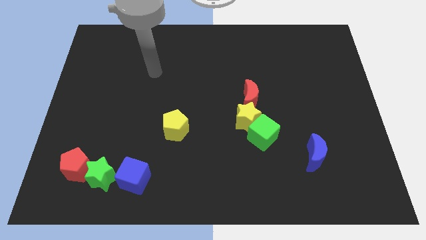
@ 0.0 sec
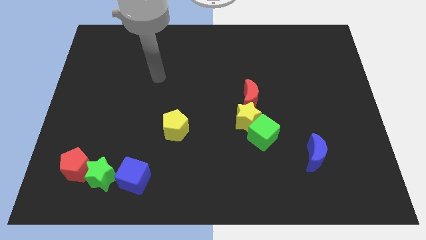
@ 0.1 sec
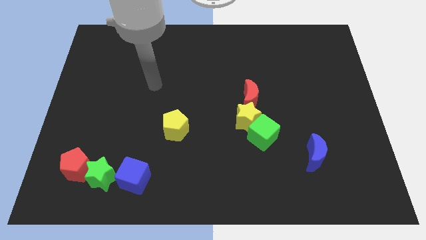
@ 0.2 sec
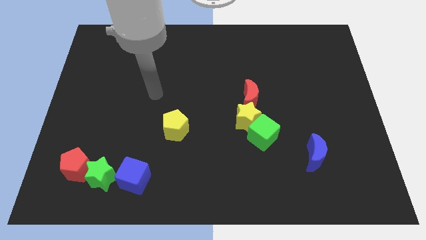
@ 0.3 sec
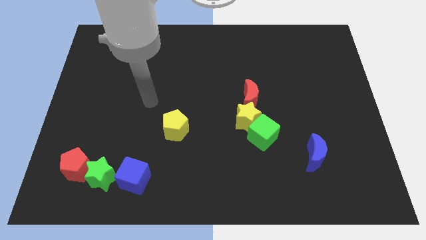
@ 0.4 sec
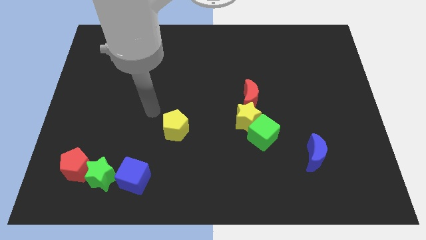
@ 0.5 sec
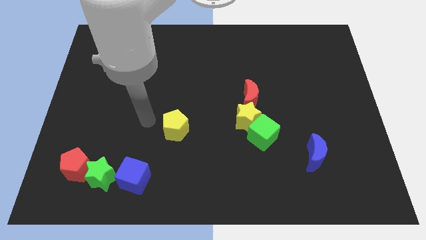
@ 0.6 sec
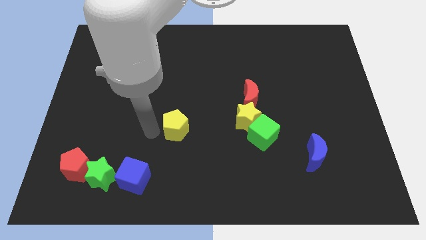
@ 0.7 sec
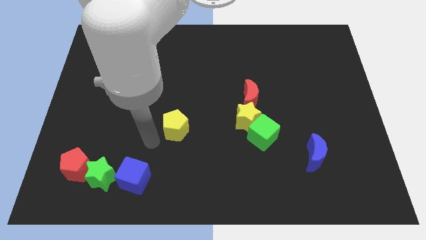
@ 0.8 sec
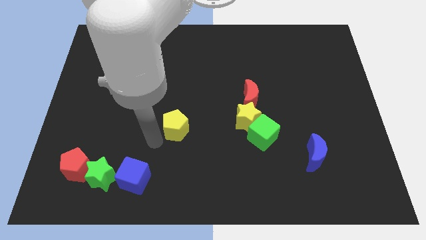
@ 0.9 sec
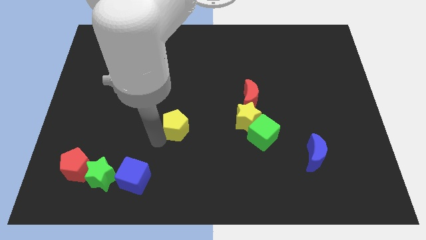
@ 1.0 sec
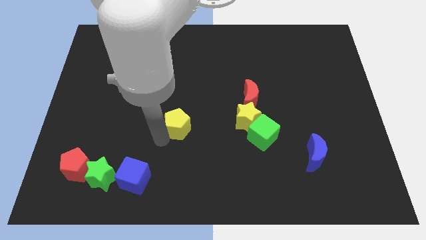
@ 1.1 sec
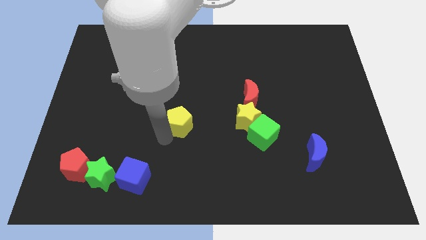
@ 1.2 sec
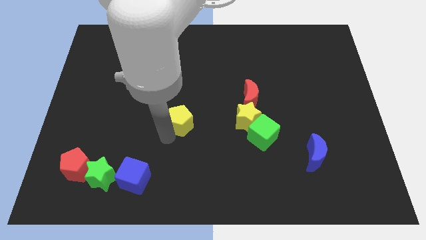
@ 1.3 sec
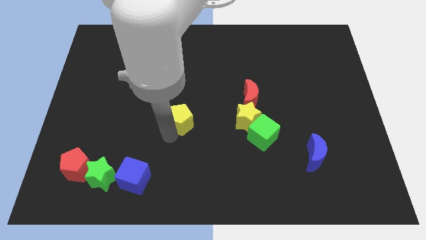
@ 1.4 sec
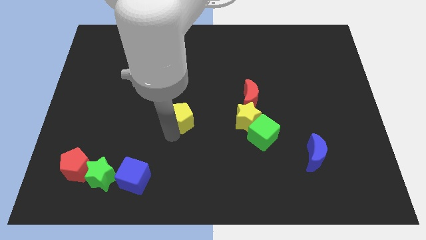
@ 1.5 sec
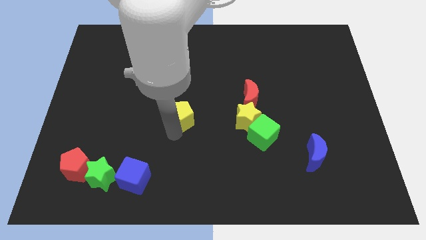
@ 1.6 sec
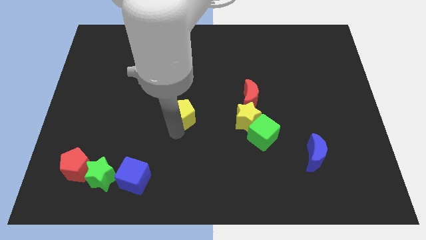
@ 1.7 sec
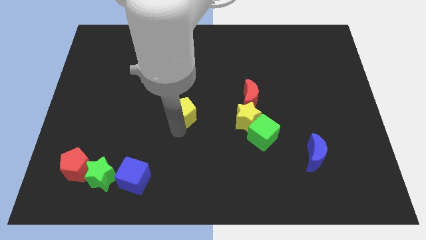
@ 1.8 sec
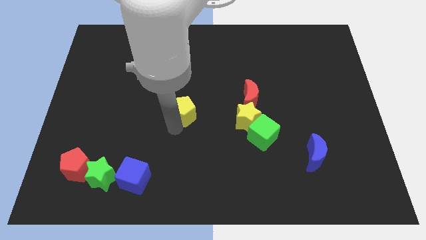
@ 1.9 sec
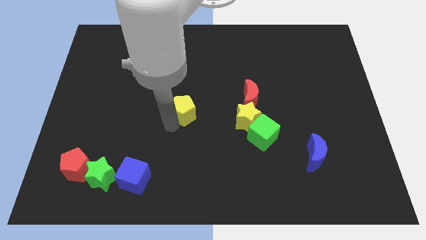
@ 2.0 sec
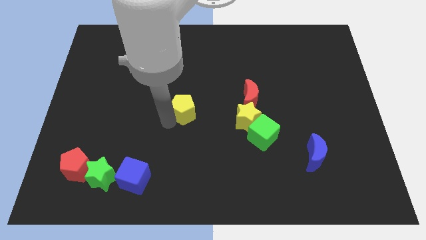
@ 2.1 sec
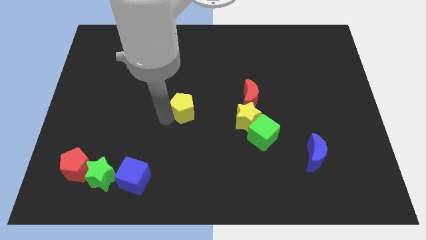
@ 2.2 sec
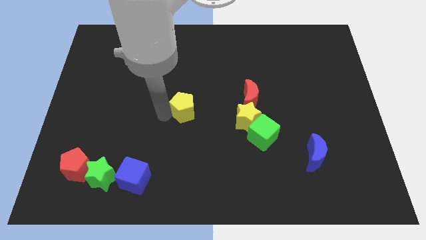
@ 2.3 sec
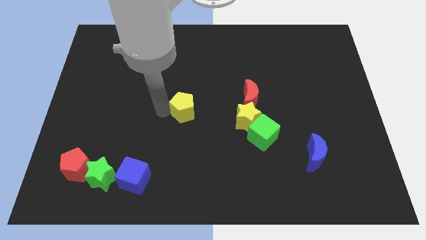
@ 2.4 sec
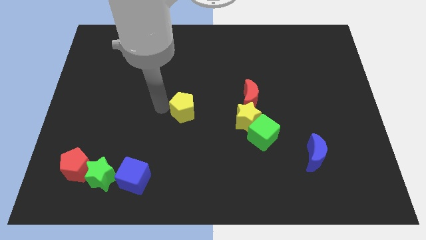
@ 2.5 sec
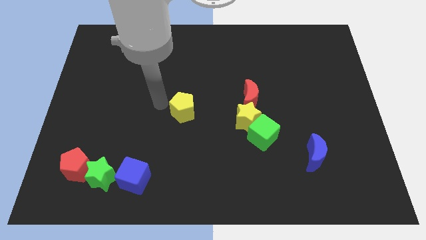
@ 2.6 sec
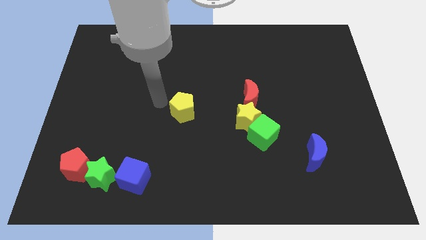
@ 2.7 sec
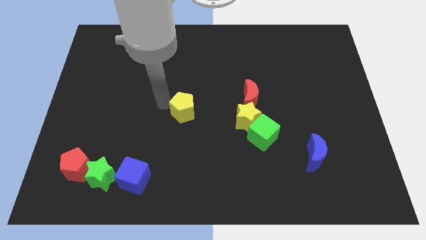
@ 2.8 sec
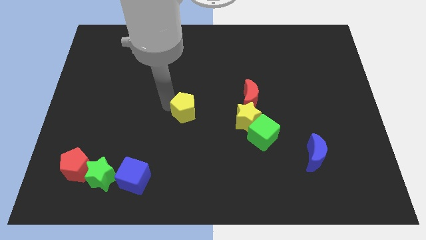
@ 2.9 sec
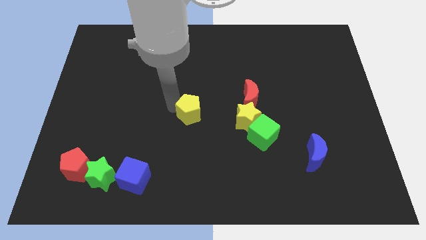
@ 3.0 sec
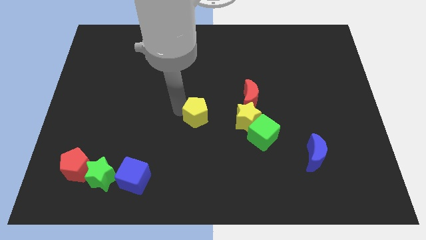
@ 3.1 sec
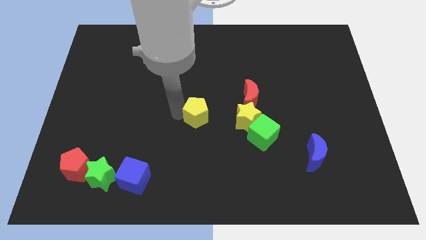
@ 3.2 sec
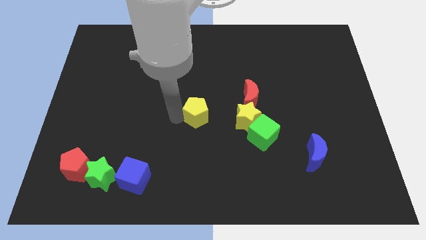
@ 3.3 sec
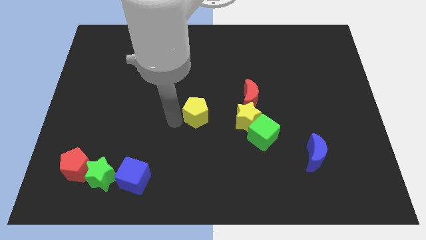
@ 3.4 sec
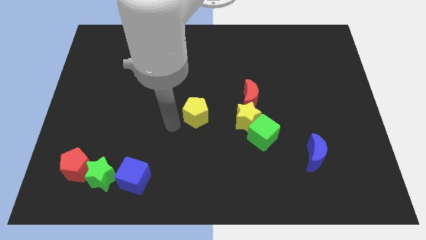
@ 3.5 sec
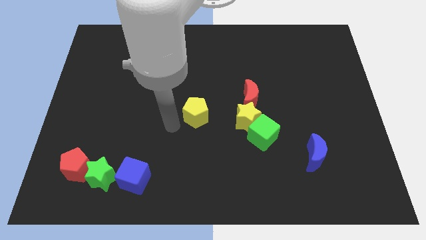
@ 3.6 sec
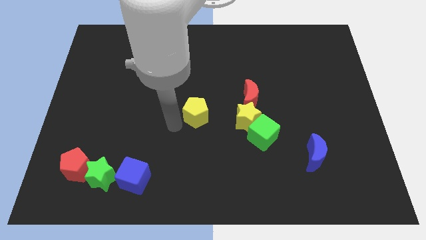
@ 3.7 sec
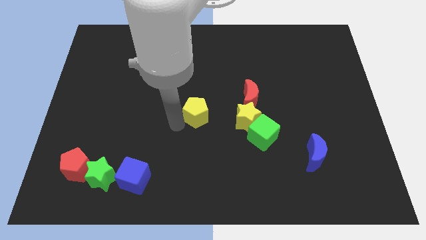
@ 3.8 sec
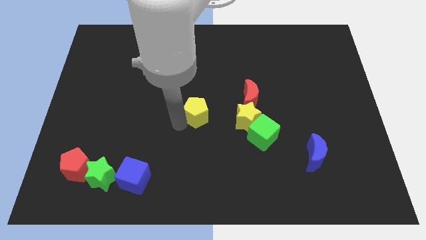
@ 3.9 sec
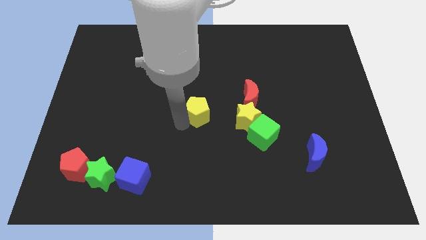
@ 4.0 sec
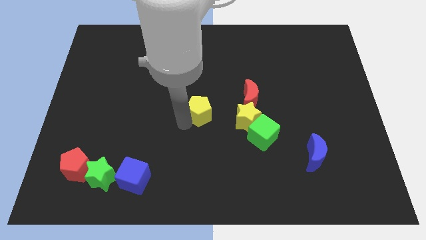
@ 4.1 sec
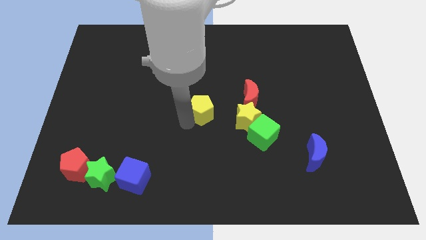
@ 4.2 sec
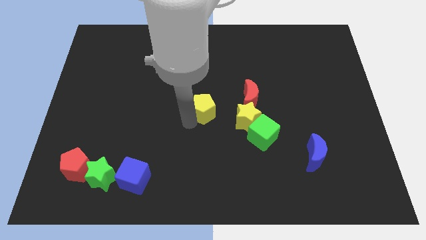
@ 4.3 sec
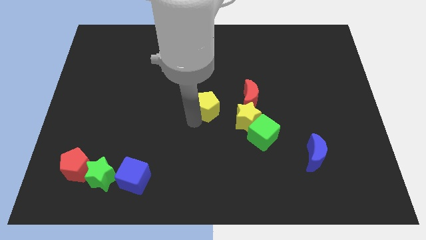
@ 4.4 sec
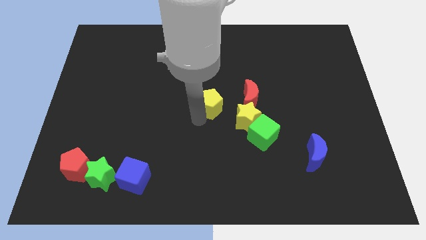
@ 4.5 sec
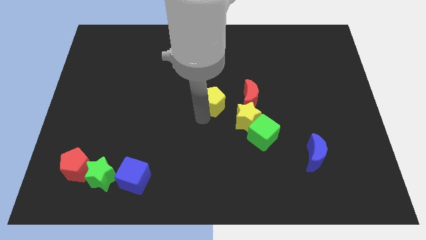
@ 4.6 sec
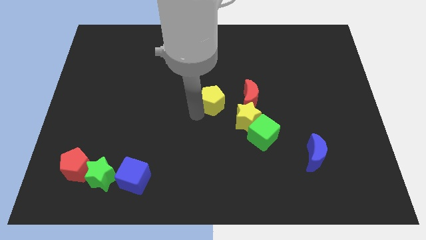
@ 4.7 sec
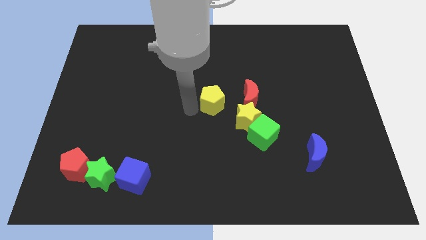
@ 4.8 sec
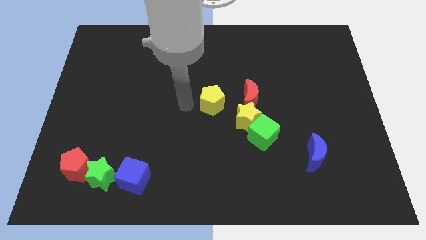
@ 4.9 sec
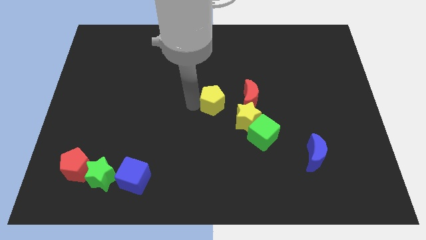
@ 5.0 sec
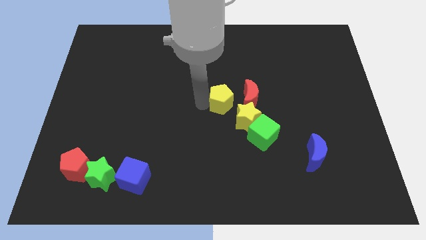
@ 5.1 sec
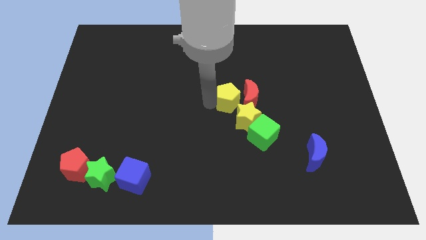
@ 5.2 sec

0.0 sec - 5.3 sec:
put the yellow pentagon to the red moon

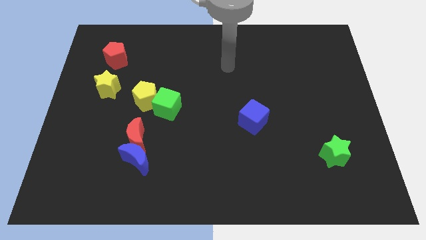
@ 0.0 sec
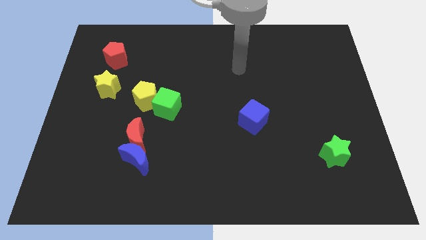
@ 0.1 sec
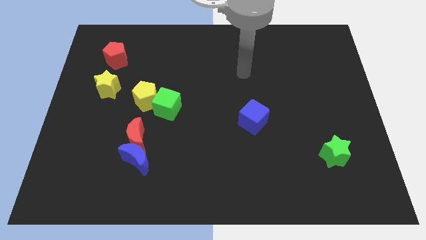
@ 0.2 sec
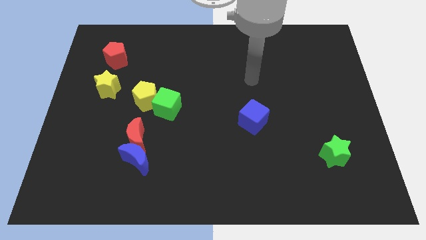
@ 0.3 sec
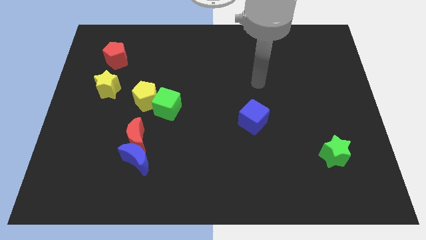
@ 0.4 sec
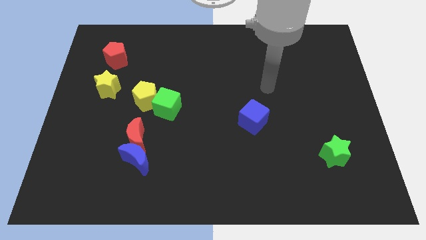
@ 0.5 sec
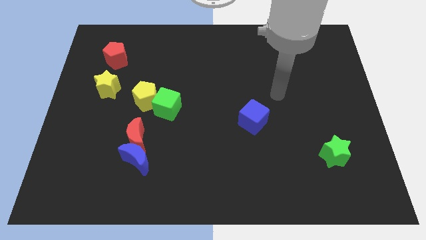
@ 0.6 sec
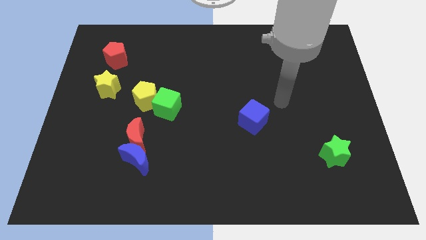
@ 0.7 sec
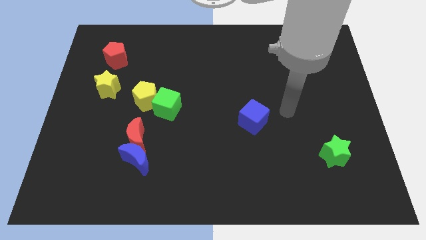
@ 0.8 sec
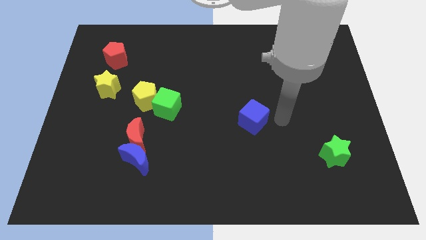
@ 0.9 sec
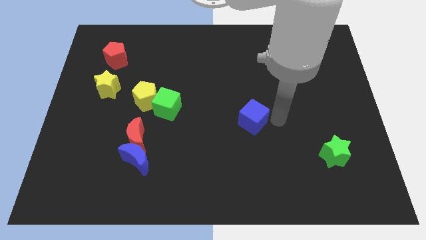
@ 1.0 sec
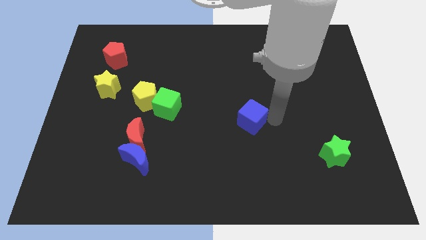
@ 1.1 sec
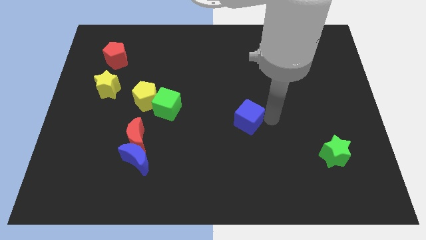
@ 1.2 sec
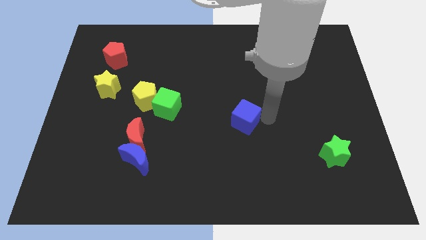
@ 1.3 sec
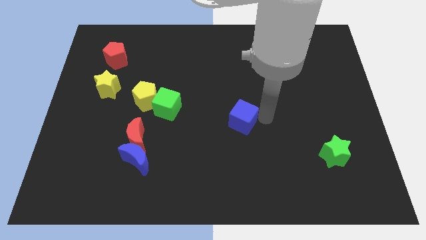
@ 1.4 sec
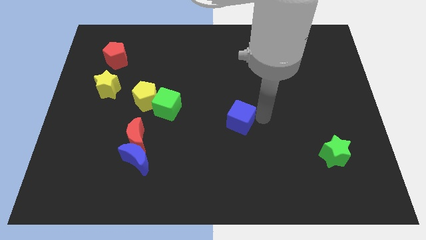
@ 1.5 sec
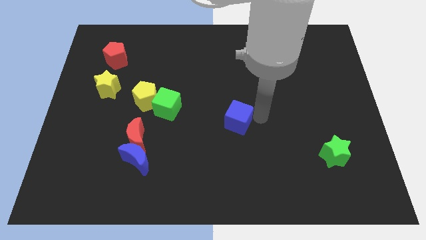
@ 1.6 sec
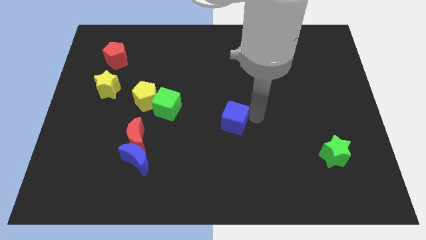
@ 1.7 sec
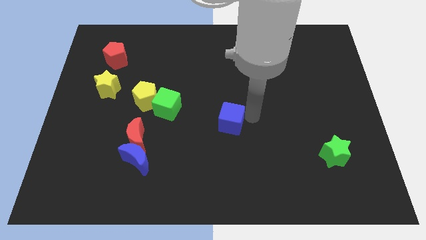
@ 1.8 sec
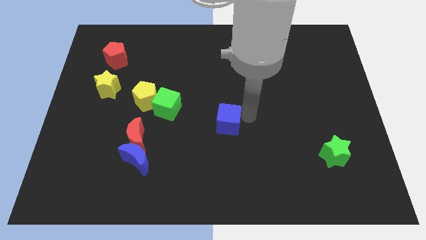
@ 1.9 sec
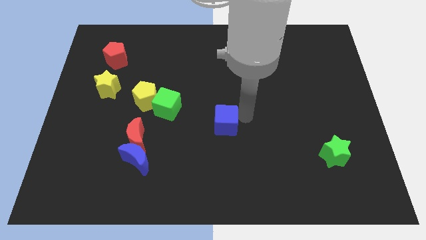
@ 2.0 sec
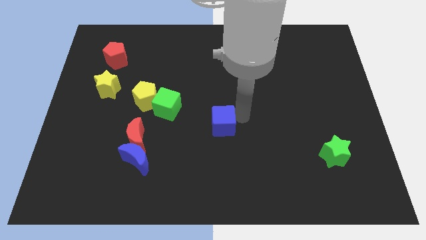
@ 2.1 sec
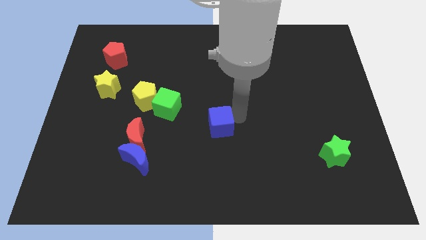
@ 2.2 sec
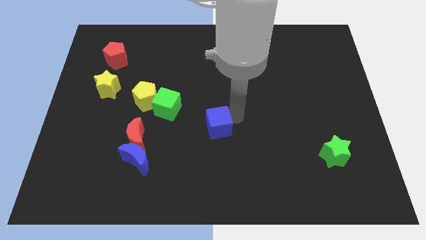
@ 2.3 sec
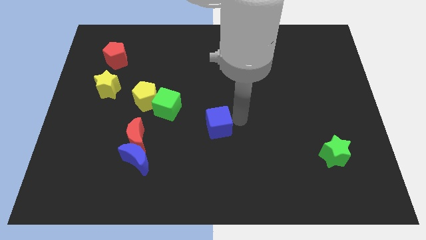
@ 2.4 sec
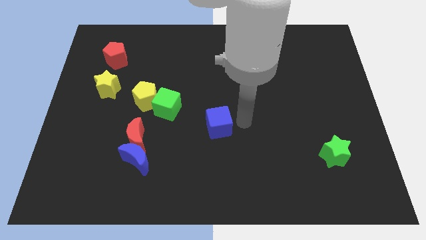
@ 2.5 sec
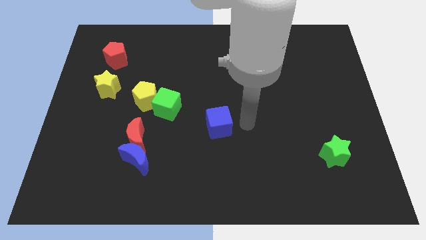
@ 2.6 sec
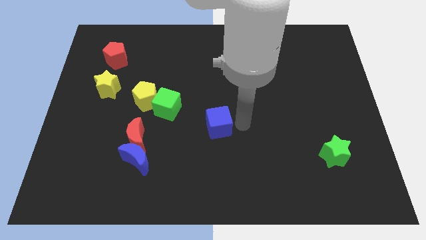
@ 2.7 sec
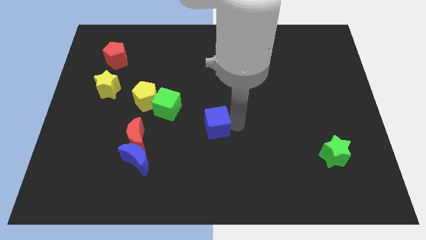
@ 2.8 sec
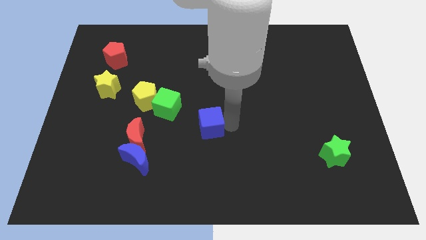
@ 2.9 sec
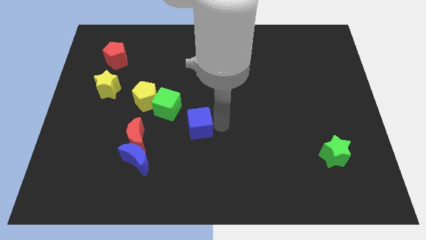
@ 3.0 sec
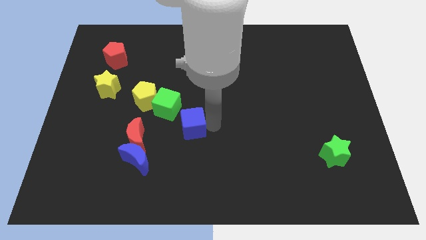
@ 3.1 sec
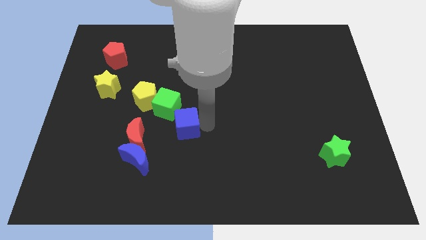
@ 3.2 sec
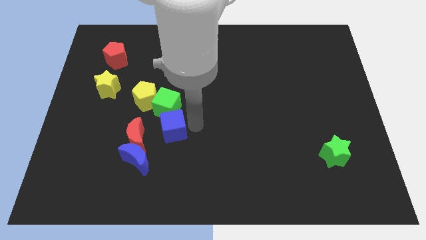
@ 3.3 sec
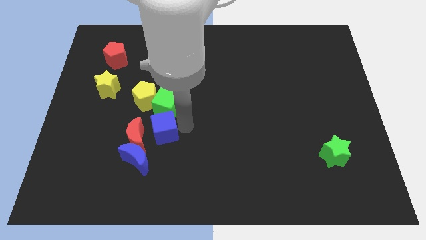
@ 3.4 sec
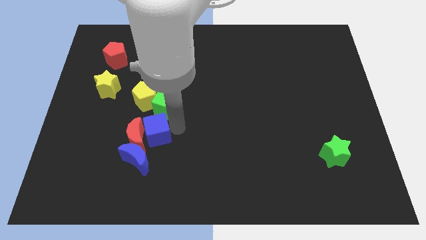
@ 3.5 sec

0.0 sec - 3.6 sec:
push the blue cube next to the red moon
